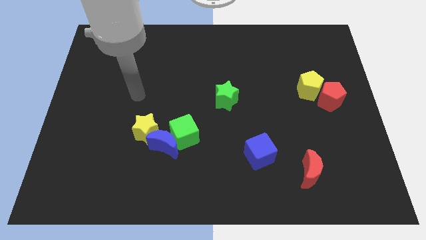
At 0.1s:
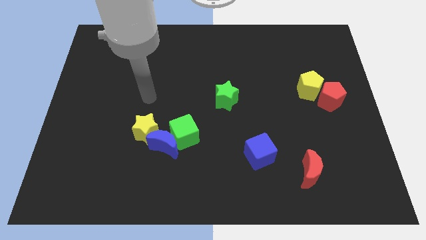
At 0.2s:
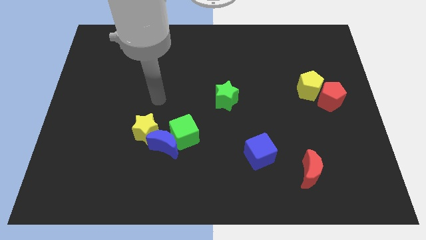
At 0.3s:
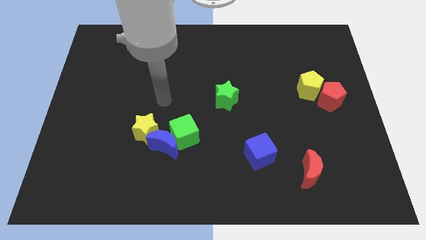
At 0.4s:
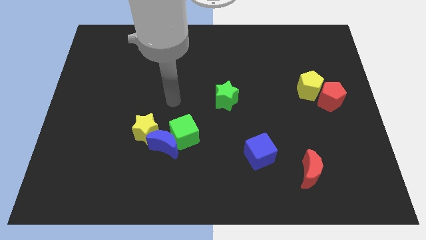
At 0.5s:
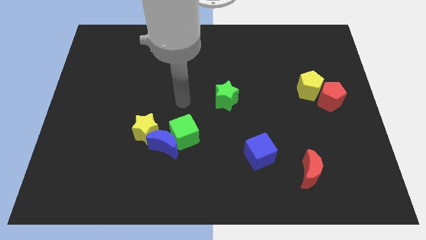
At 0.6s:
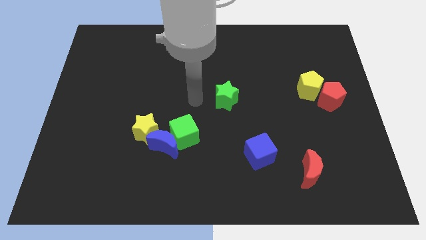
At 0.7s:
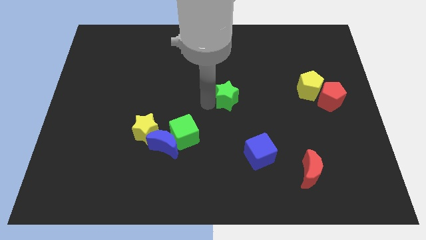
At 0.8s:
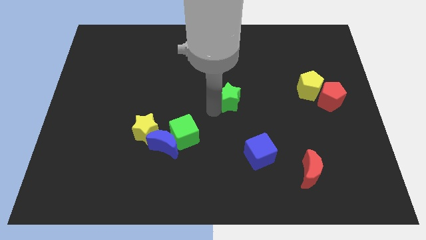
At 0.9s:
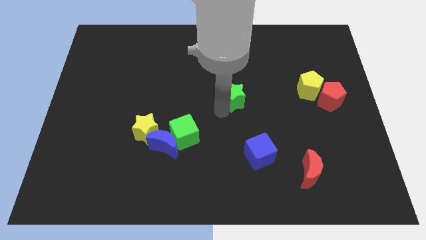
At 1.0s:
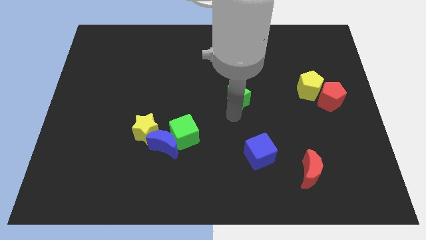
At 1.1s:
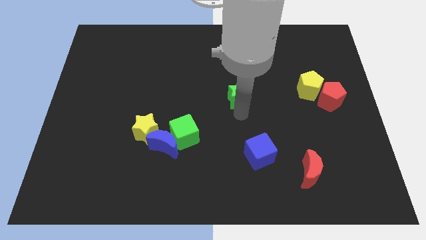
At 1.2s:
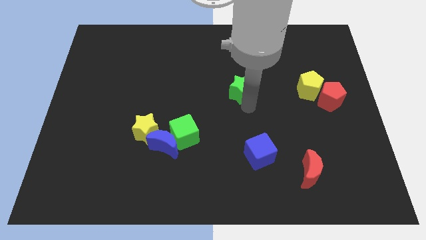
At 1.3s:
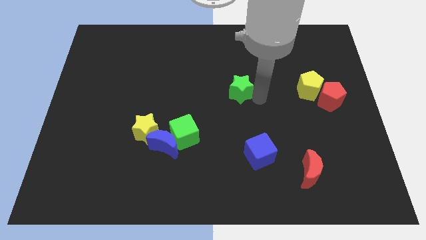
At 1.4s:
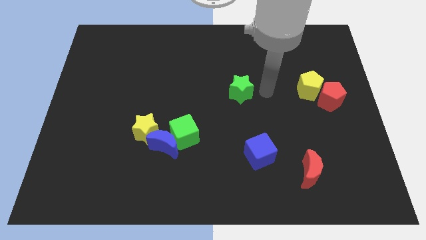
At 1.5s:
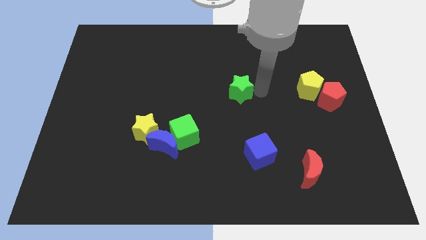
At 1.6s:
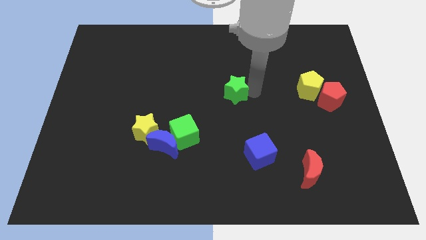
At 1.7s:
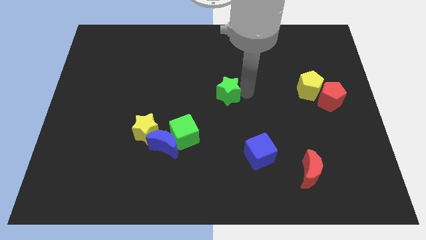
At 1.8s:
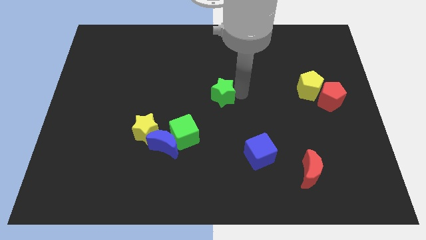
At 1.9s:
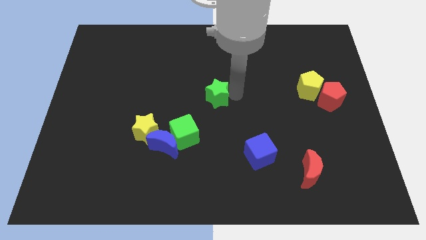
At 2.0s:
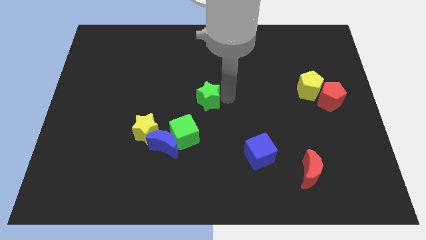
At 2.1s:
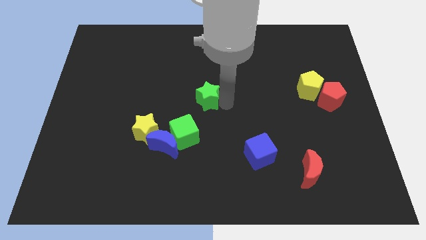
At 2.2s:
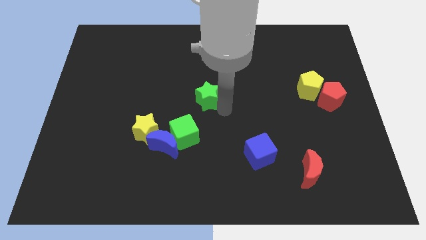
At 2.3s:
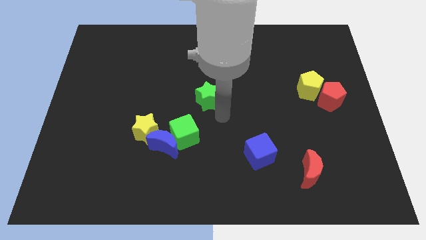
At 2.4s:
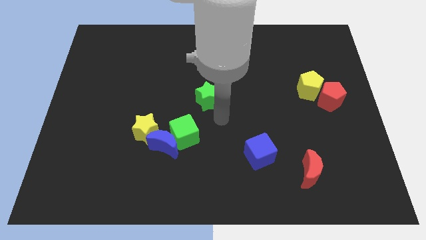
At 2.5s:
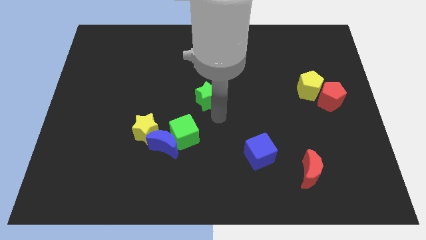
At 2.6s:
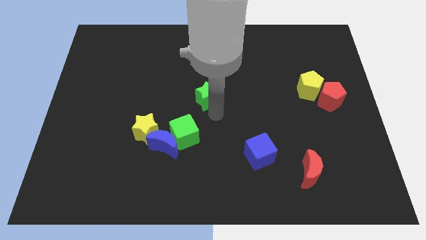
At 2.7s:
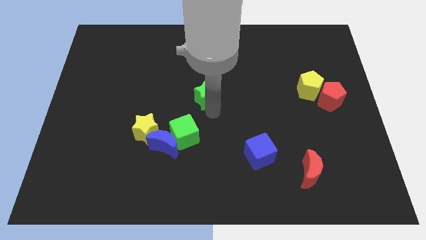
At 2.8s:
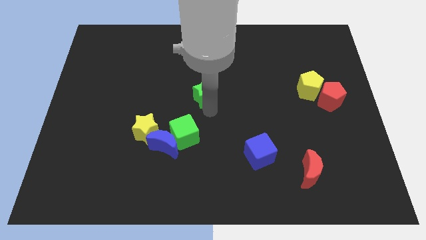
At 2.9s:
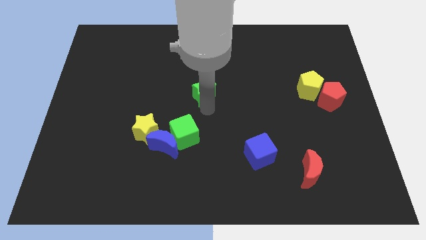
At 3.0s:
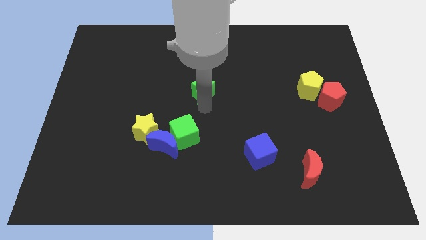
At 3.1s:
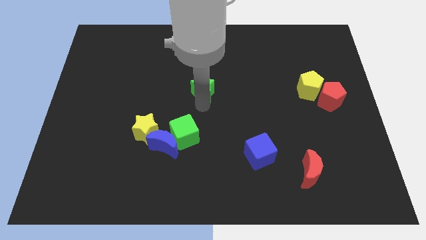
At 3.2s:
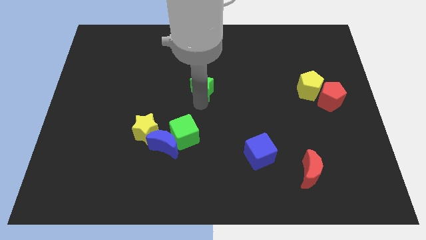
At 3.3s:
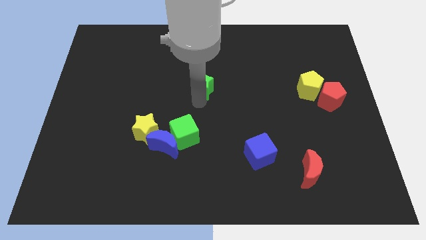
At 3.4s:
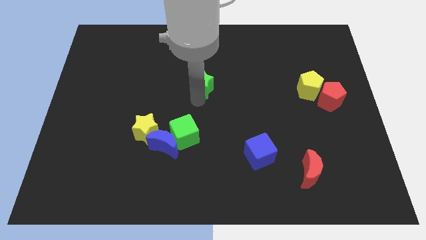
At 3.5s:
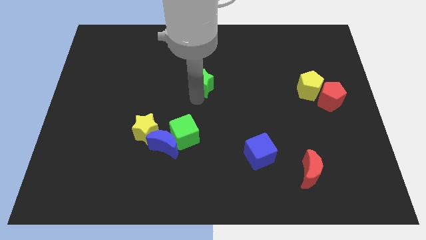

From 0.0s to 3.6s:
slide the green star a bit upwards and then to the left

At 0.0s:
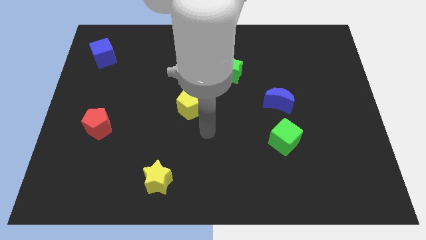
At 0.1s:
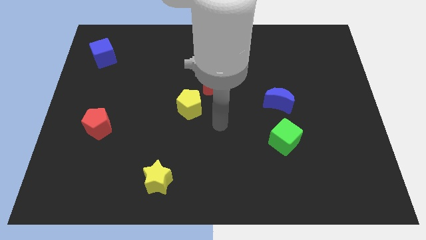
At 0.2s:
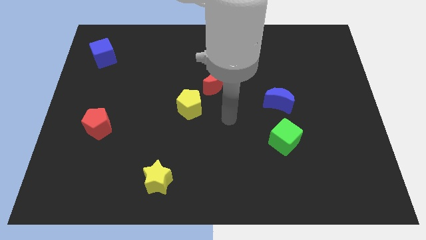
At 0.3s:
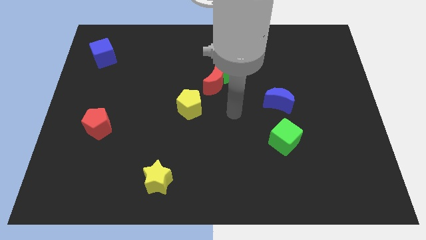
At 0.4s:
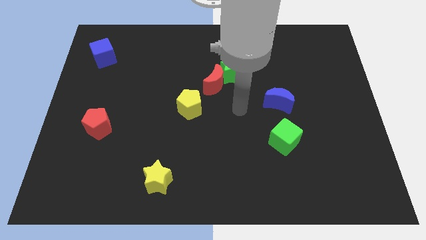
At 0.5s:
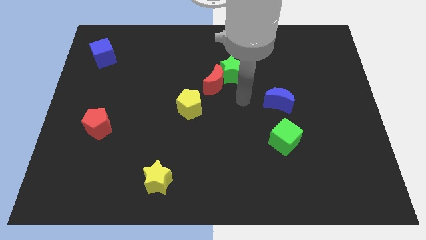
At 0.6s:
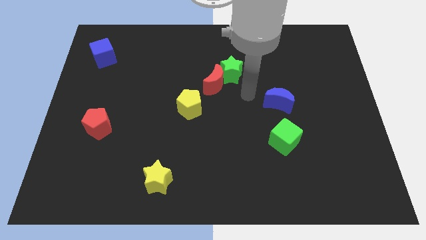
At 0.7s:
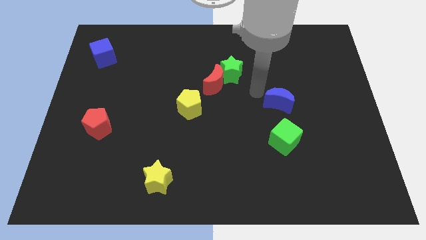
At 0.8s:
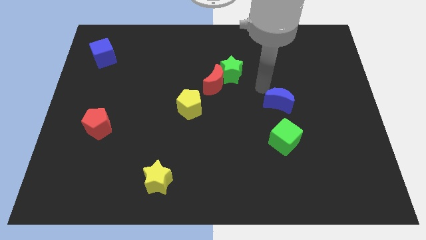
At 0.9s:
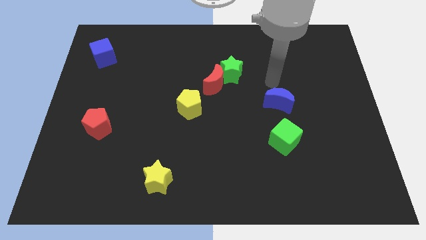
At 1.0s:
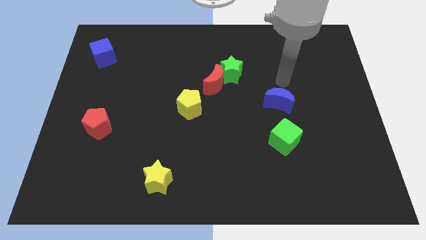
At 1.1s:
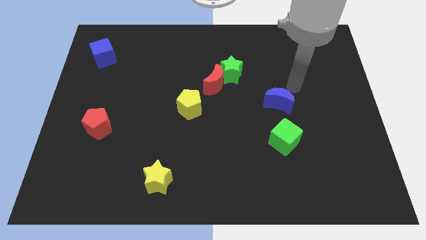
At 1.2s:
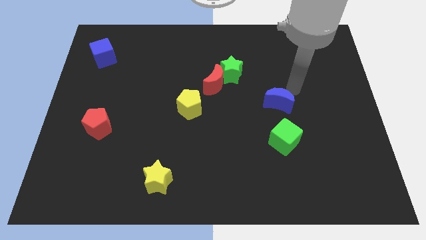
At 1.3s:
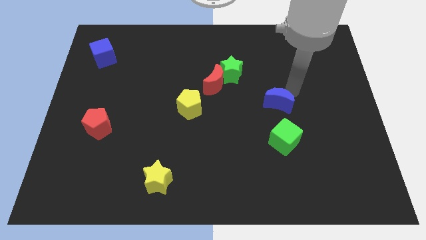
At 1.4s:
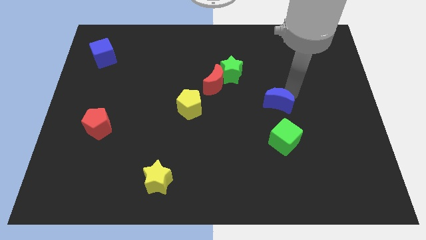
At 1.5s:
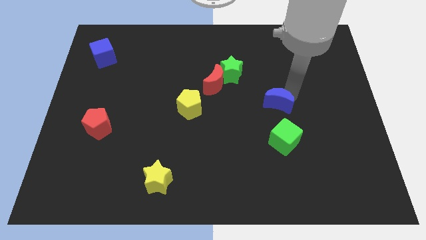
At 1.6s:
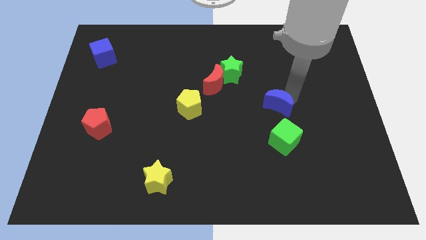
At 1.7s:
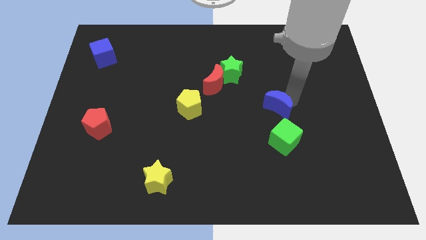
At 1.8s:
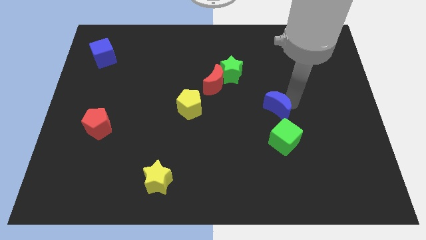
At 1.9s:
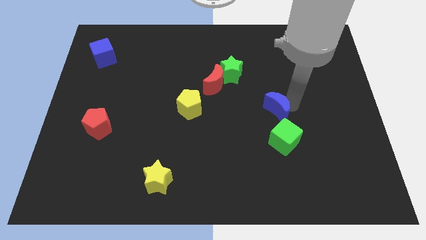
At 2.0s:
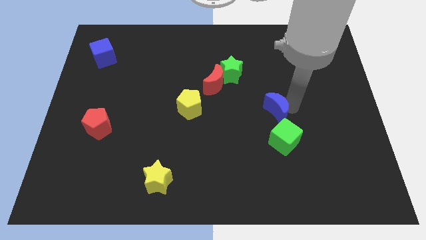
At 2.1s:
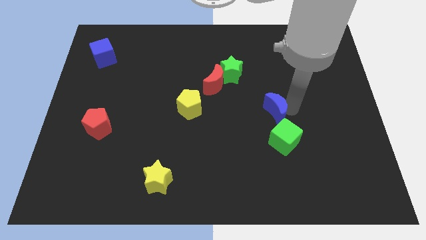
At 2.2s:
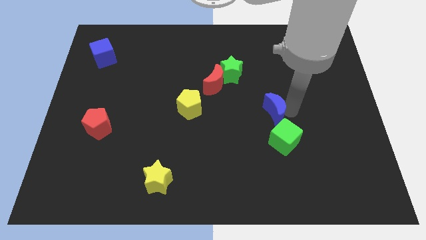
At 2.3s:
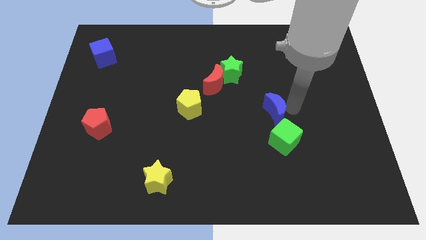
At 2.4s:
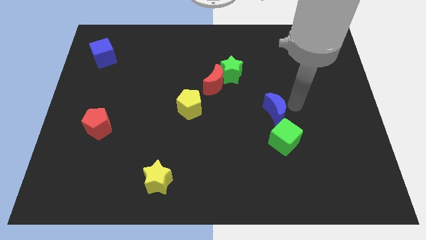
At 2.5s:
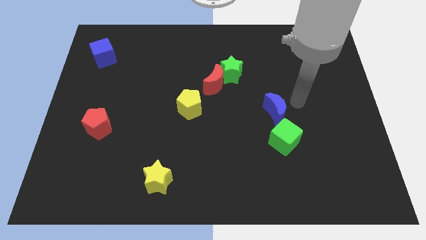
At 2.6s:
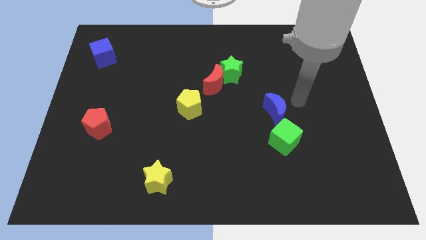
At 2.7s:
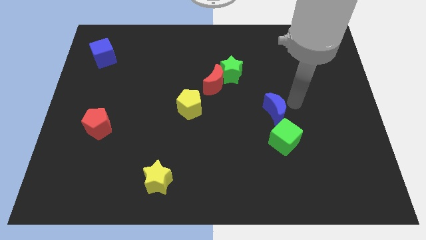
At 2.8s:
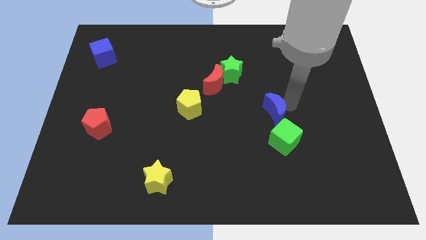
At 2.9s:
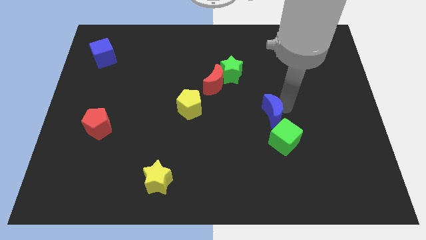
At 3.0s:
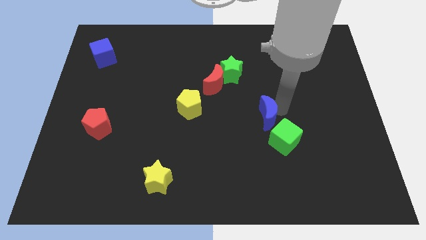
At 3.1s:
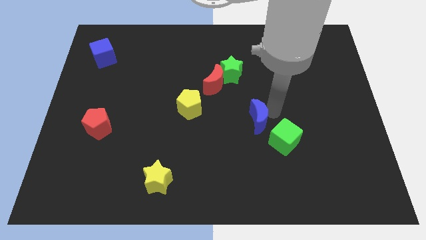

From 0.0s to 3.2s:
slightly move the blue moon downwards and to the left diagonally

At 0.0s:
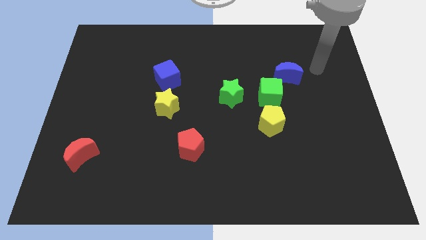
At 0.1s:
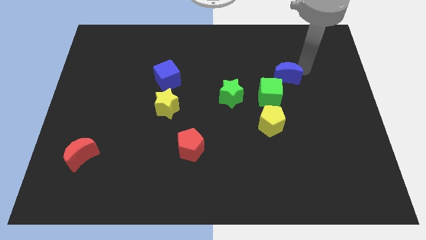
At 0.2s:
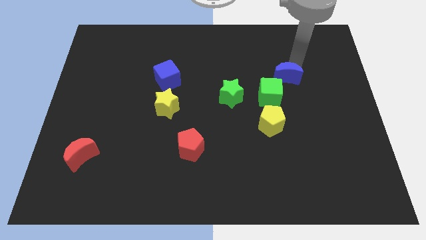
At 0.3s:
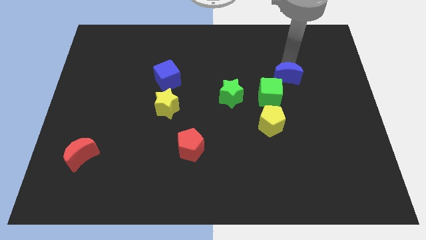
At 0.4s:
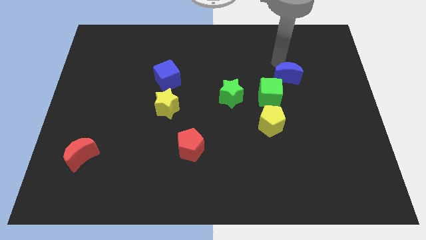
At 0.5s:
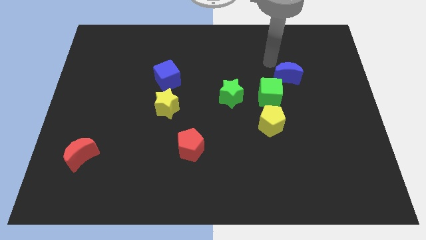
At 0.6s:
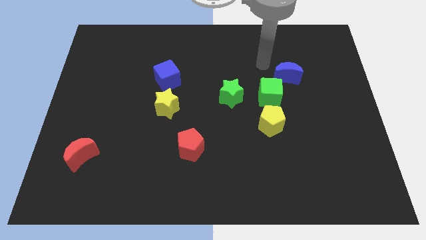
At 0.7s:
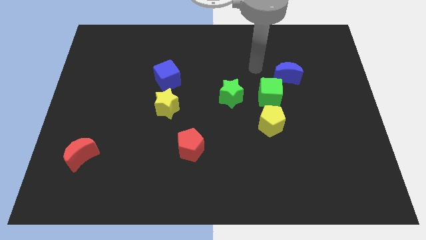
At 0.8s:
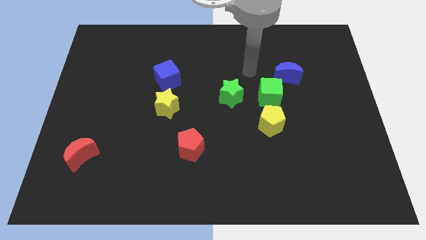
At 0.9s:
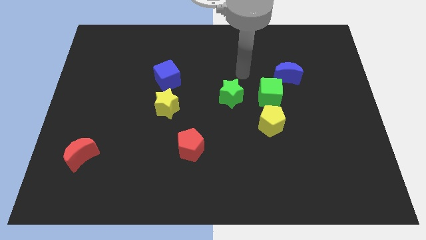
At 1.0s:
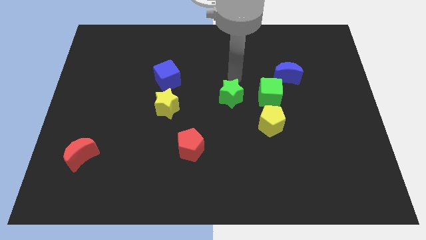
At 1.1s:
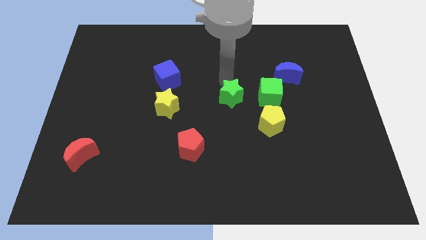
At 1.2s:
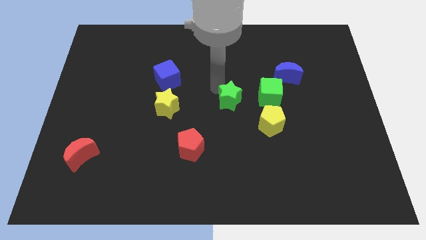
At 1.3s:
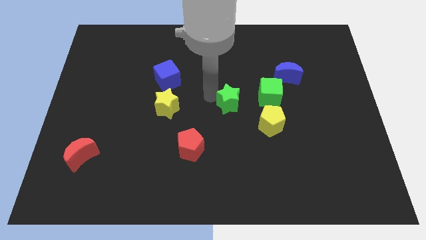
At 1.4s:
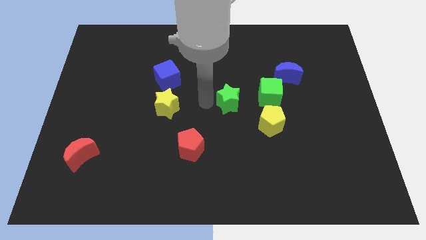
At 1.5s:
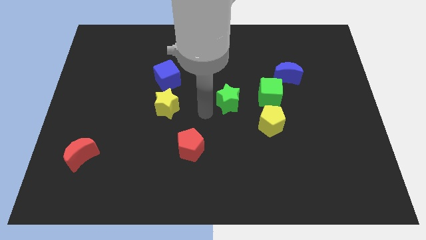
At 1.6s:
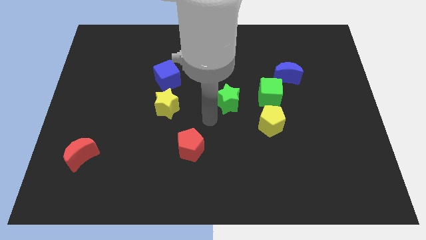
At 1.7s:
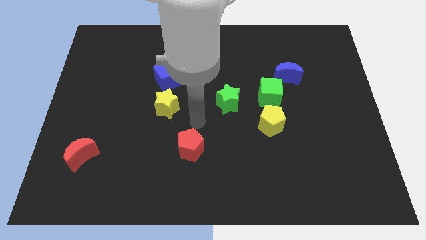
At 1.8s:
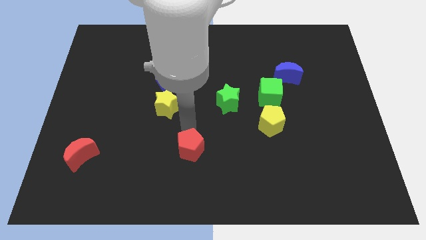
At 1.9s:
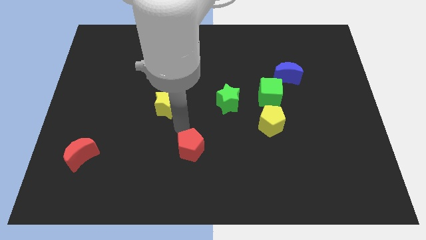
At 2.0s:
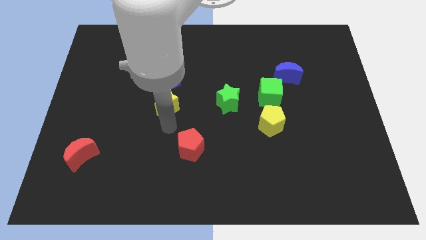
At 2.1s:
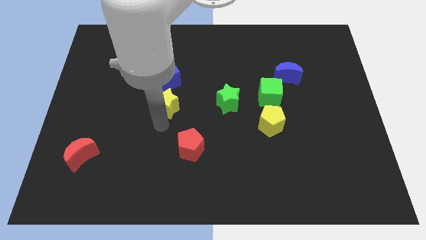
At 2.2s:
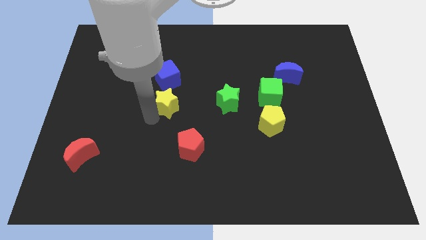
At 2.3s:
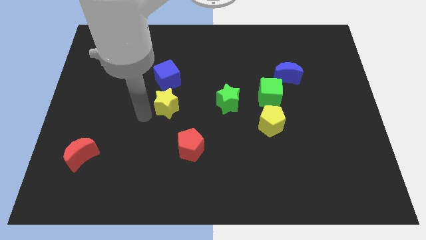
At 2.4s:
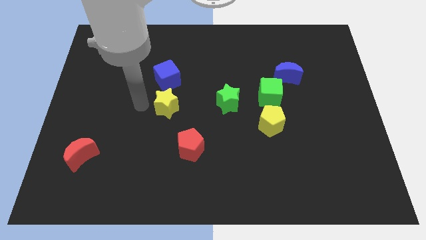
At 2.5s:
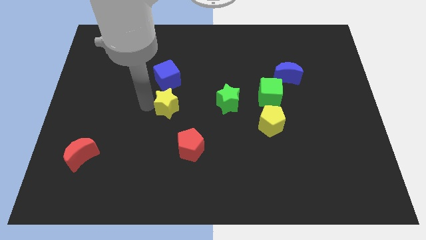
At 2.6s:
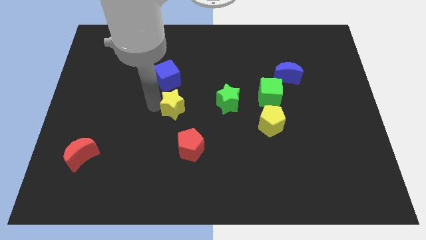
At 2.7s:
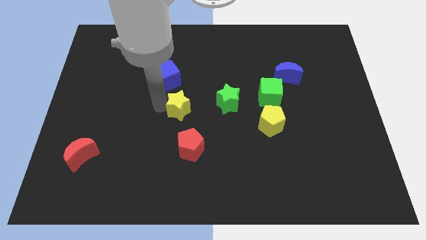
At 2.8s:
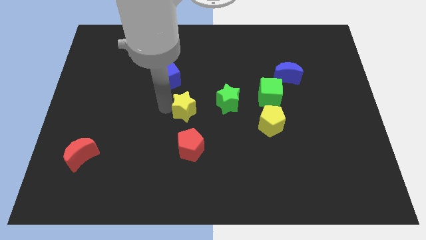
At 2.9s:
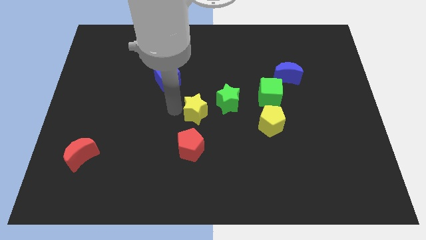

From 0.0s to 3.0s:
slightly slide the yellow star to the right
